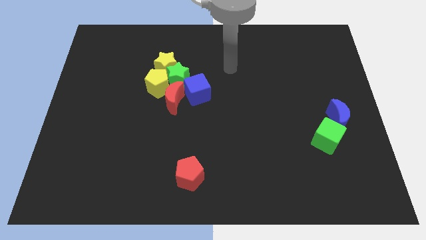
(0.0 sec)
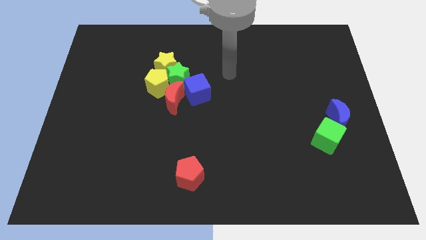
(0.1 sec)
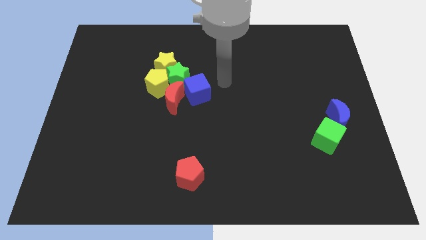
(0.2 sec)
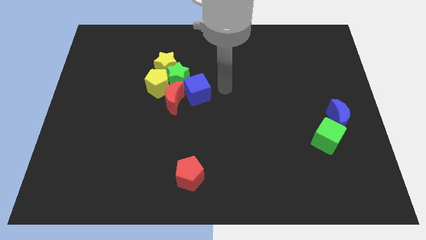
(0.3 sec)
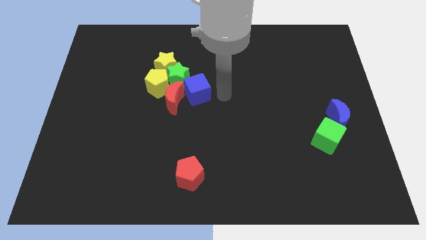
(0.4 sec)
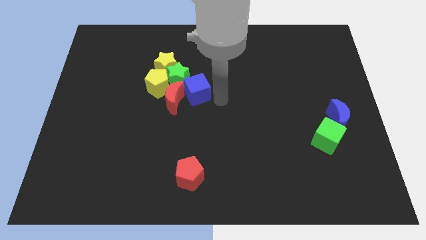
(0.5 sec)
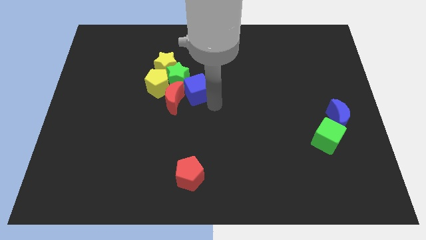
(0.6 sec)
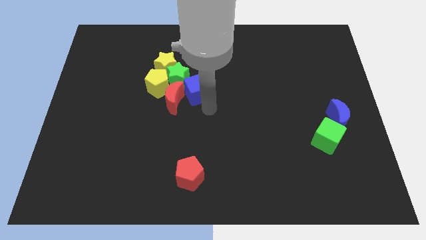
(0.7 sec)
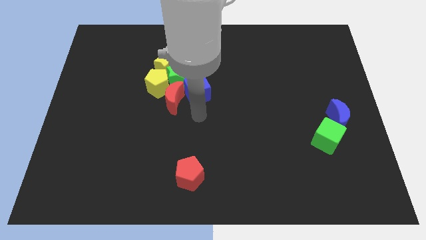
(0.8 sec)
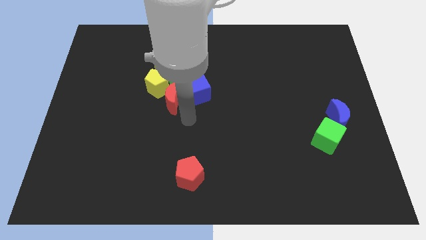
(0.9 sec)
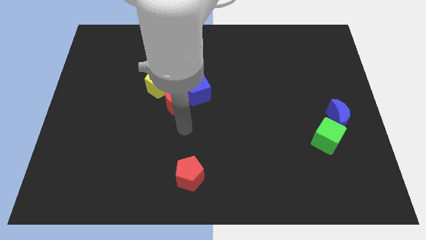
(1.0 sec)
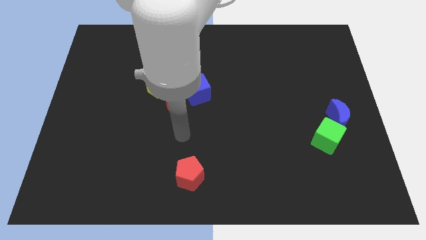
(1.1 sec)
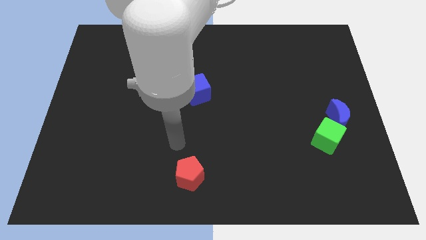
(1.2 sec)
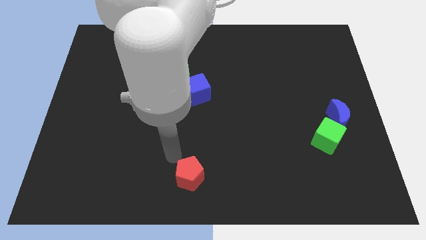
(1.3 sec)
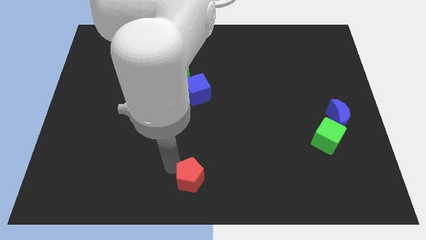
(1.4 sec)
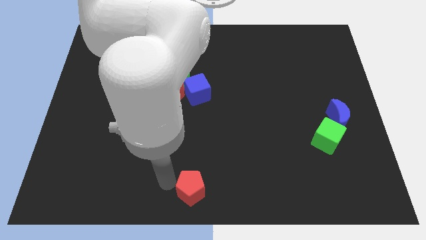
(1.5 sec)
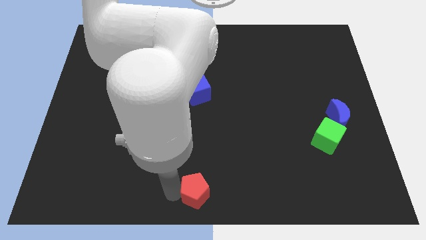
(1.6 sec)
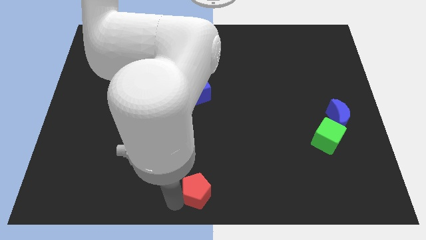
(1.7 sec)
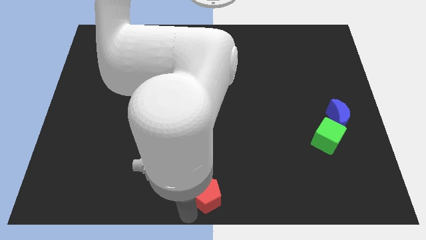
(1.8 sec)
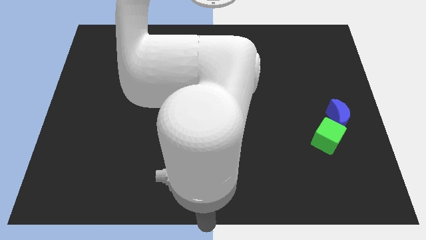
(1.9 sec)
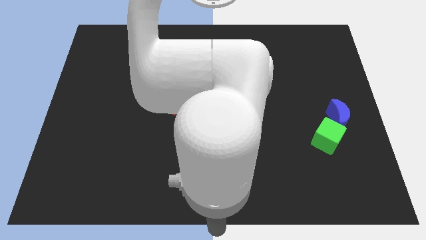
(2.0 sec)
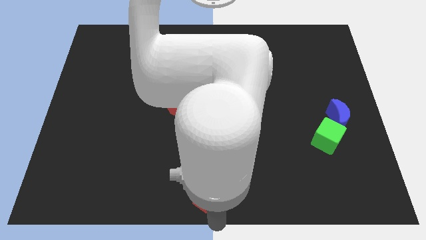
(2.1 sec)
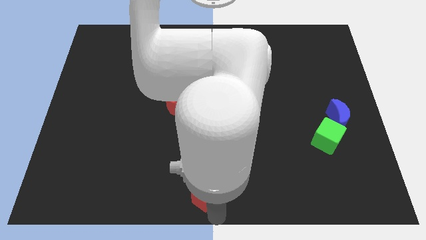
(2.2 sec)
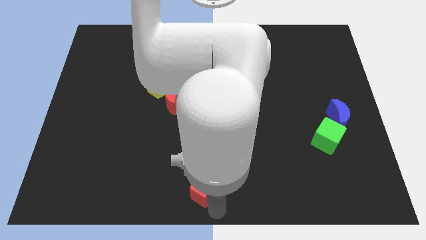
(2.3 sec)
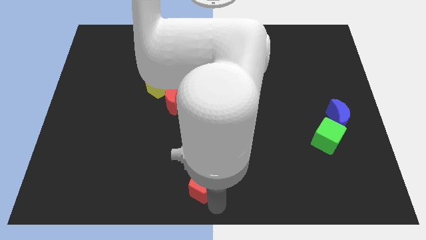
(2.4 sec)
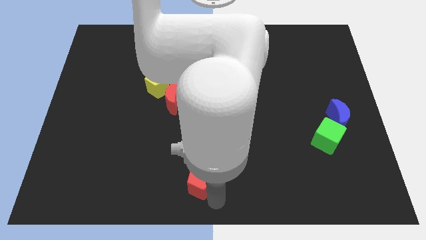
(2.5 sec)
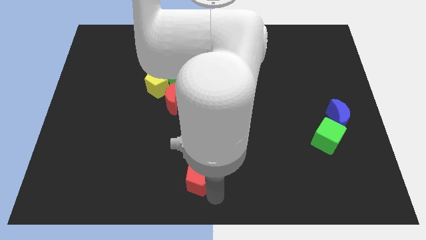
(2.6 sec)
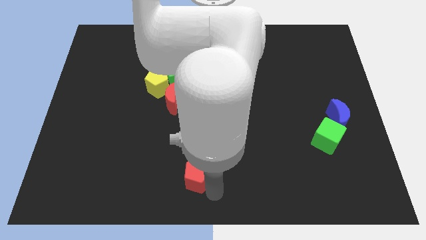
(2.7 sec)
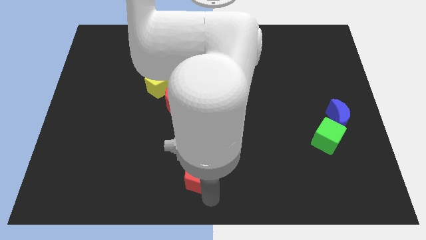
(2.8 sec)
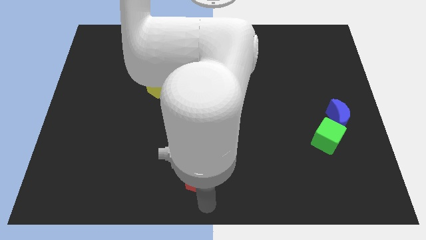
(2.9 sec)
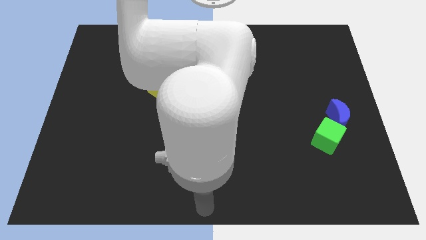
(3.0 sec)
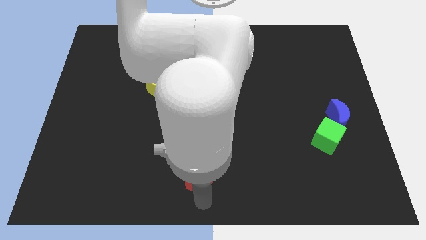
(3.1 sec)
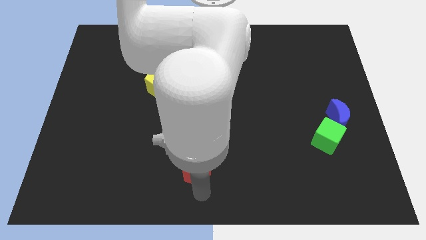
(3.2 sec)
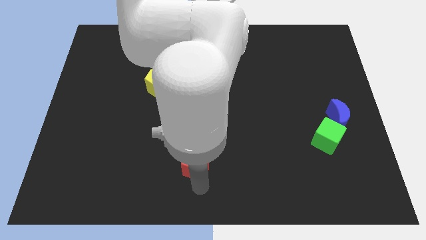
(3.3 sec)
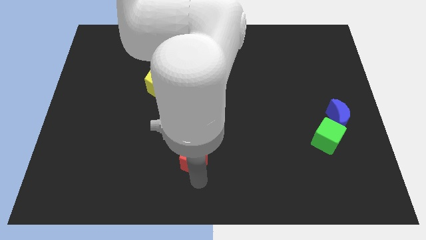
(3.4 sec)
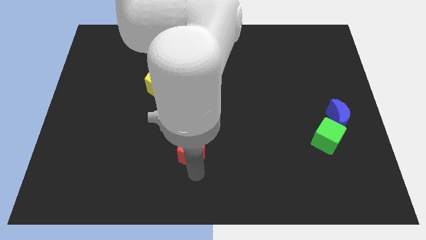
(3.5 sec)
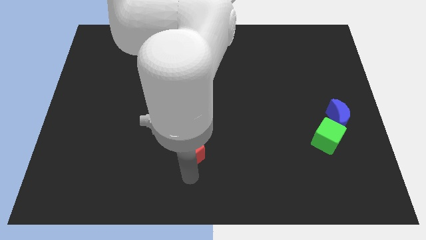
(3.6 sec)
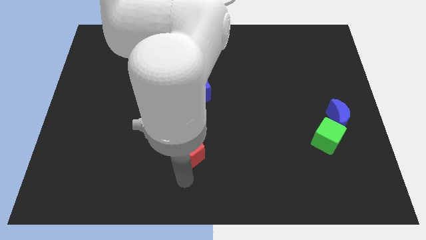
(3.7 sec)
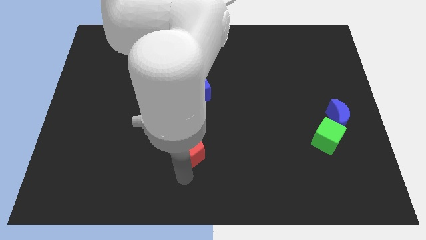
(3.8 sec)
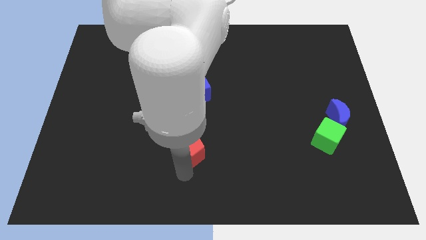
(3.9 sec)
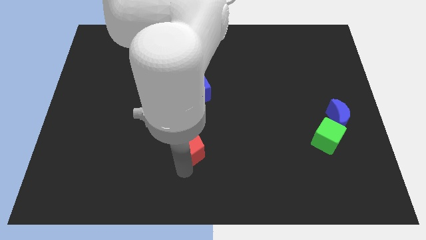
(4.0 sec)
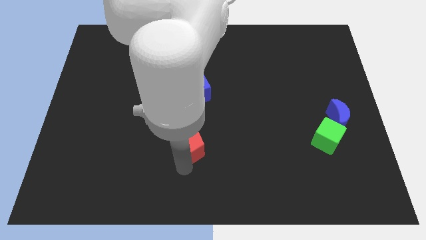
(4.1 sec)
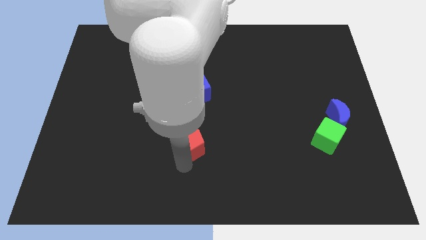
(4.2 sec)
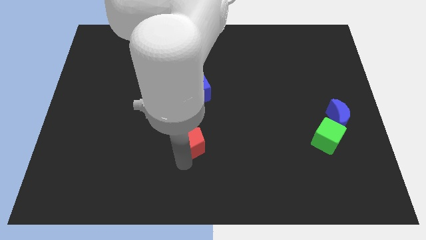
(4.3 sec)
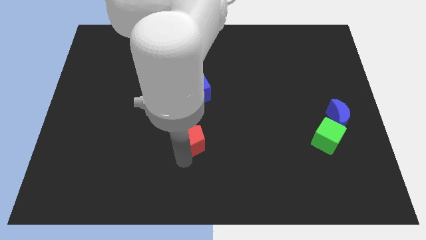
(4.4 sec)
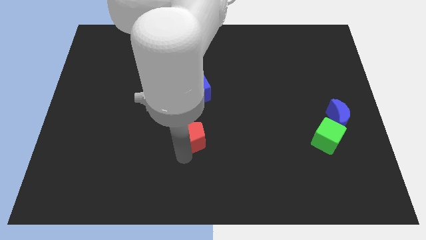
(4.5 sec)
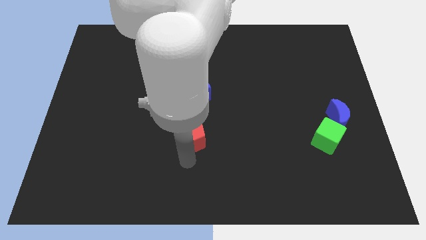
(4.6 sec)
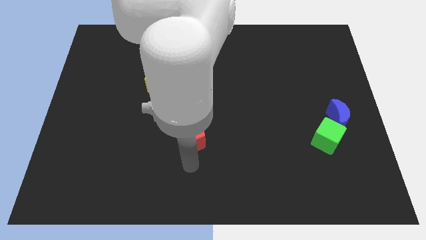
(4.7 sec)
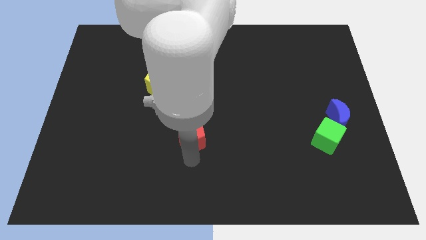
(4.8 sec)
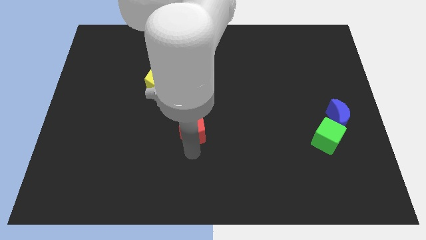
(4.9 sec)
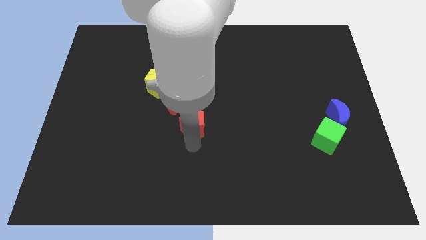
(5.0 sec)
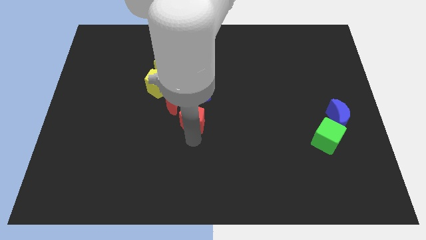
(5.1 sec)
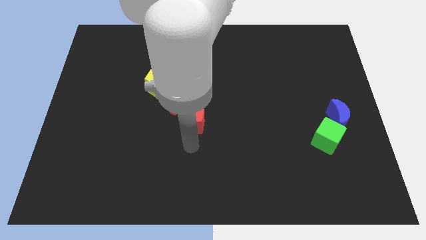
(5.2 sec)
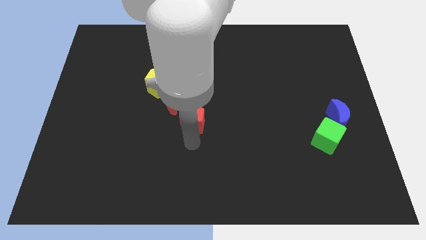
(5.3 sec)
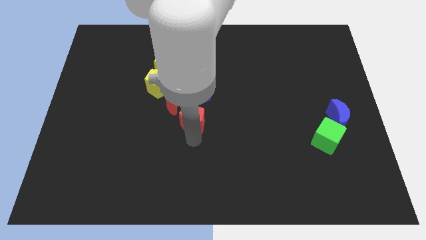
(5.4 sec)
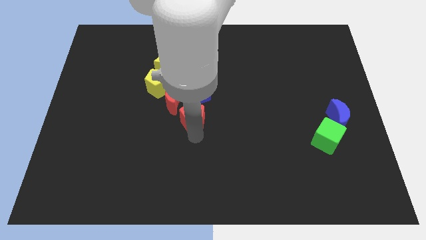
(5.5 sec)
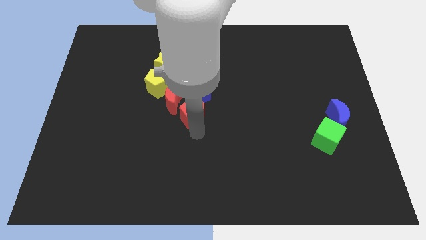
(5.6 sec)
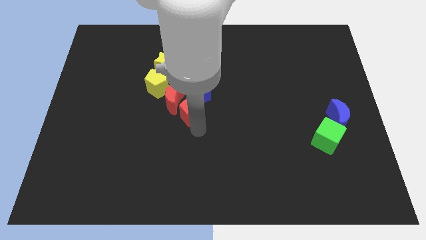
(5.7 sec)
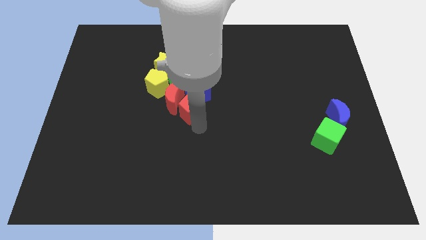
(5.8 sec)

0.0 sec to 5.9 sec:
put the red pentagon to the blue cube

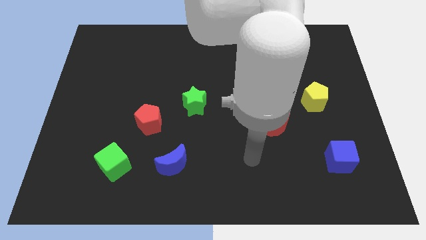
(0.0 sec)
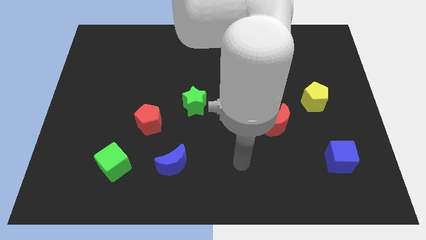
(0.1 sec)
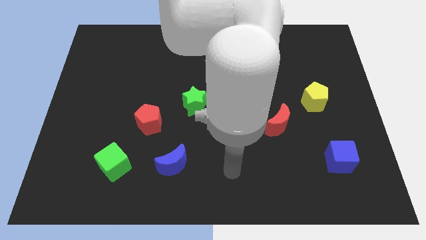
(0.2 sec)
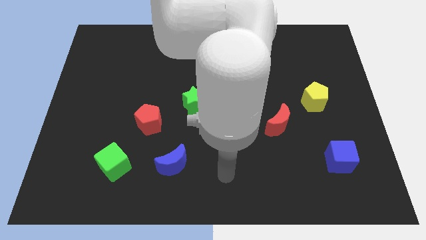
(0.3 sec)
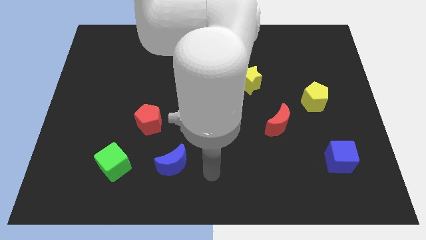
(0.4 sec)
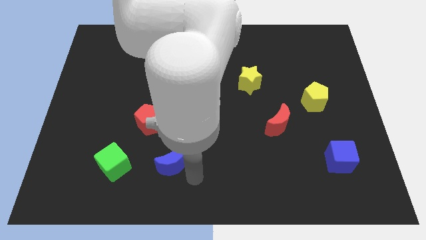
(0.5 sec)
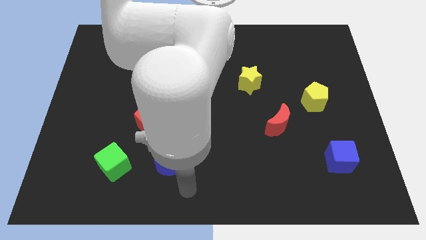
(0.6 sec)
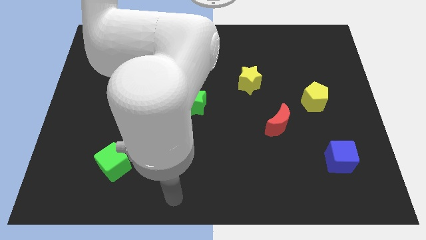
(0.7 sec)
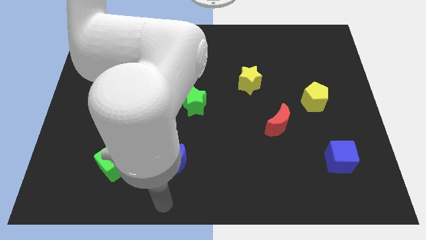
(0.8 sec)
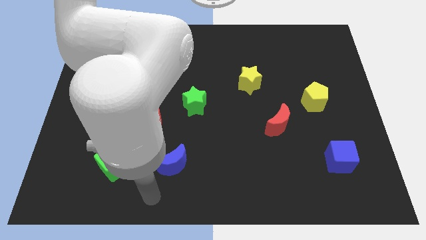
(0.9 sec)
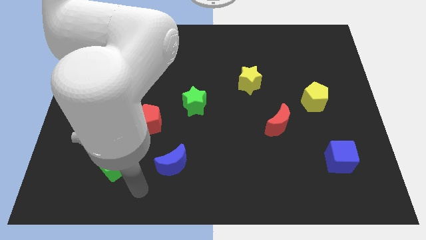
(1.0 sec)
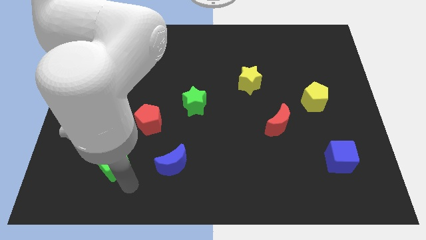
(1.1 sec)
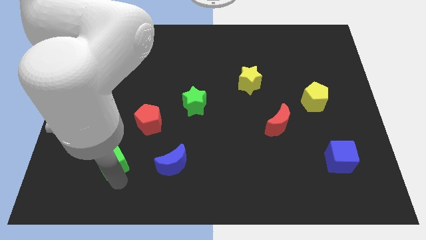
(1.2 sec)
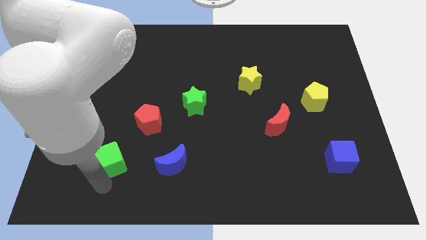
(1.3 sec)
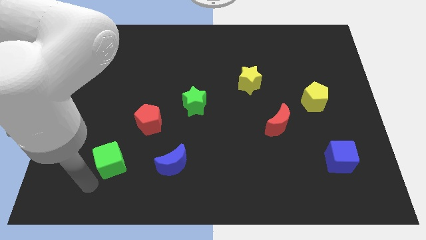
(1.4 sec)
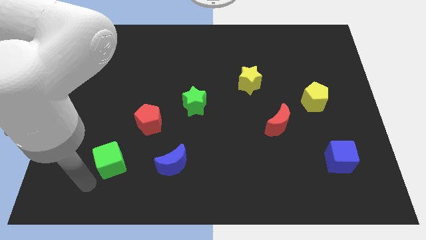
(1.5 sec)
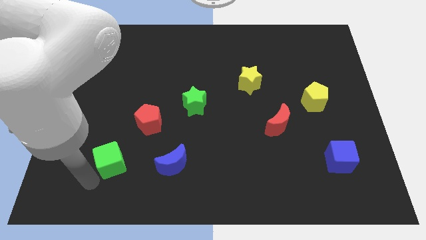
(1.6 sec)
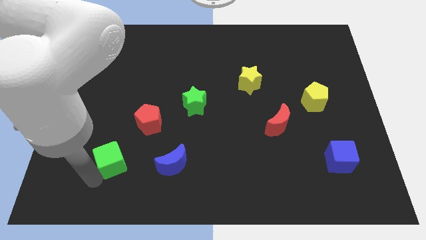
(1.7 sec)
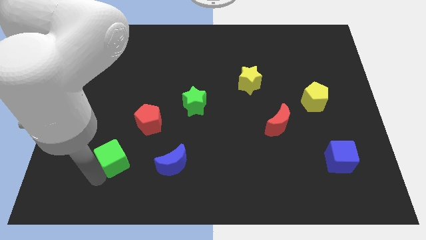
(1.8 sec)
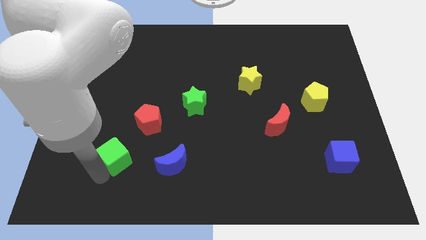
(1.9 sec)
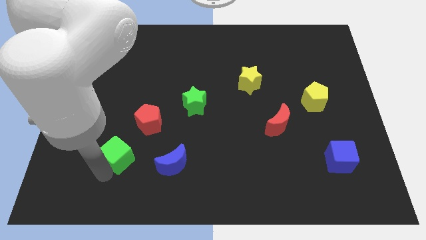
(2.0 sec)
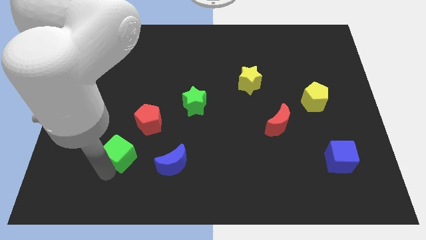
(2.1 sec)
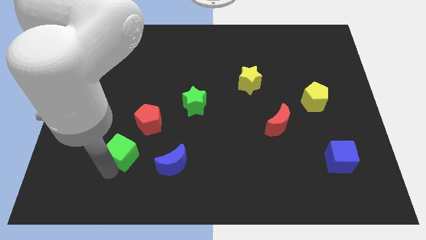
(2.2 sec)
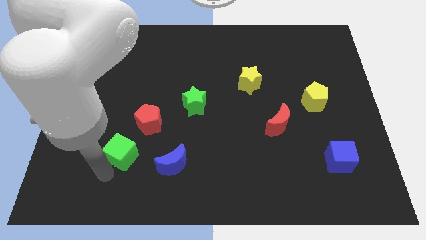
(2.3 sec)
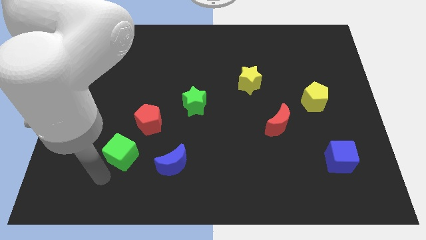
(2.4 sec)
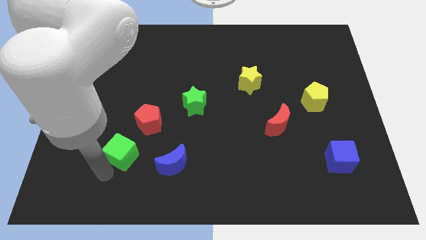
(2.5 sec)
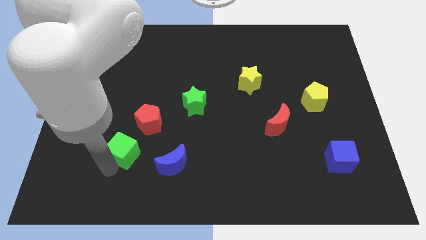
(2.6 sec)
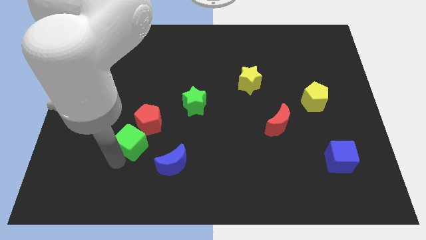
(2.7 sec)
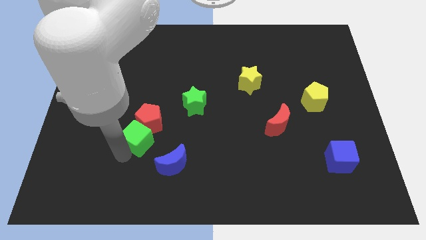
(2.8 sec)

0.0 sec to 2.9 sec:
push the green cube to the red pentagon
